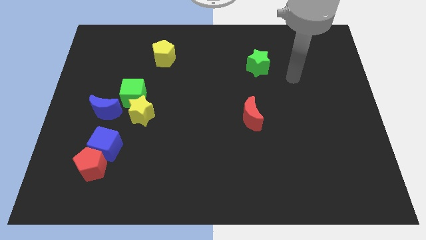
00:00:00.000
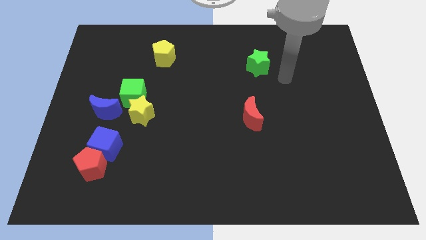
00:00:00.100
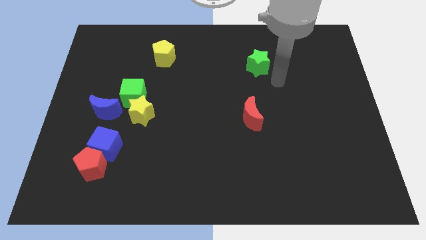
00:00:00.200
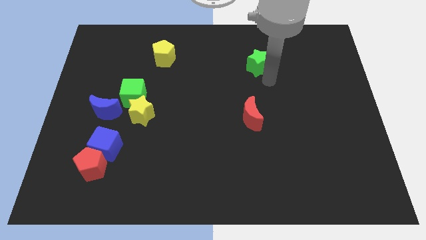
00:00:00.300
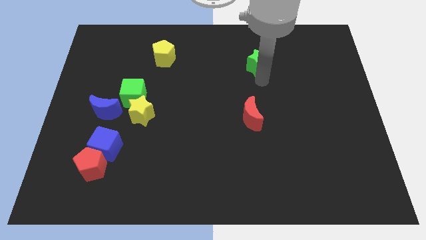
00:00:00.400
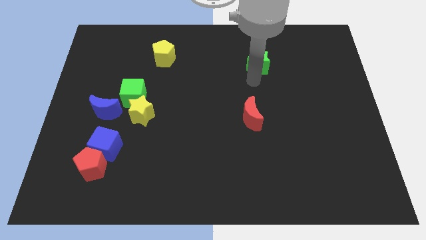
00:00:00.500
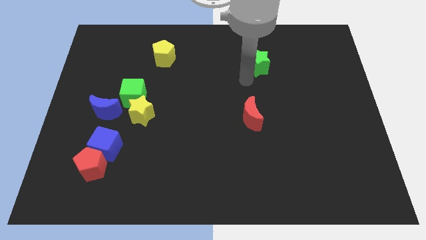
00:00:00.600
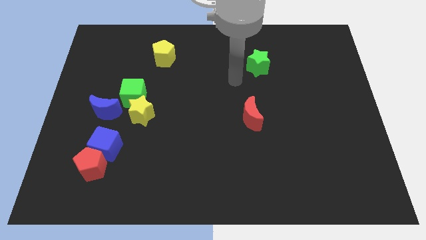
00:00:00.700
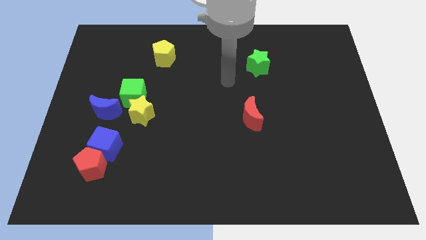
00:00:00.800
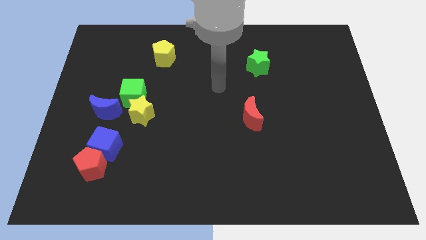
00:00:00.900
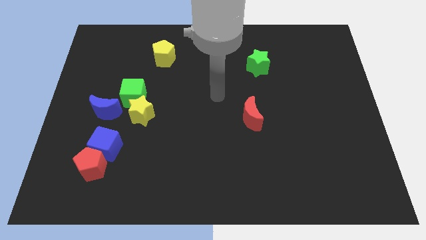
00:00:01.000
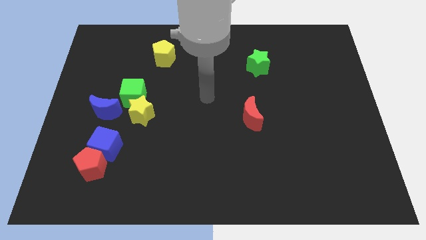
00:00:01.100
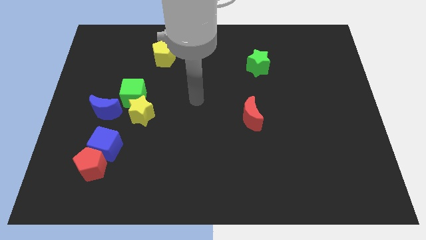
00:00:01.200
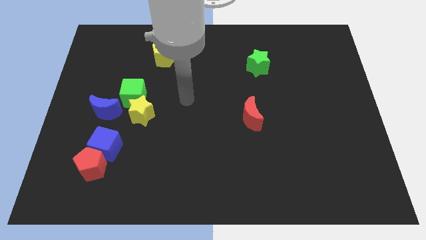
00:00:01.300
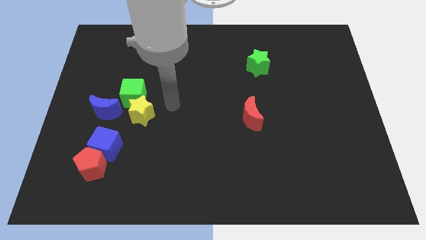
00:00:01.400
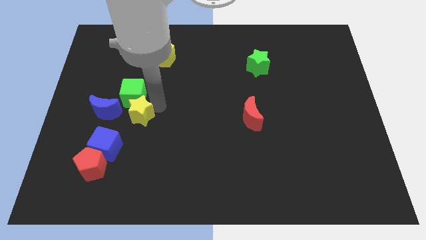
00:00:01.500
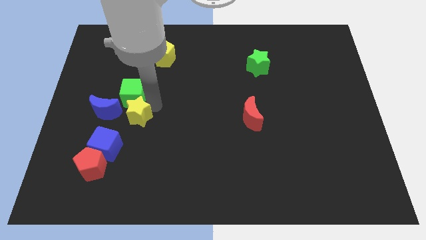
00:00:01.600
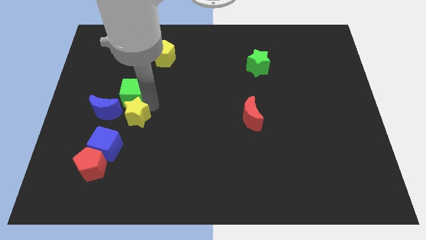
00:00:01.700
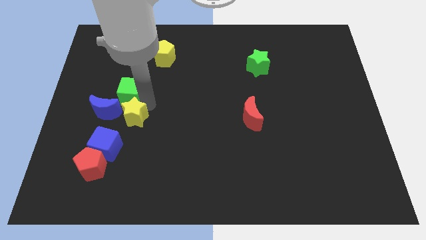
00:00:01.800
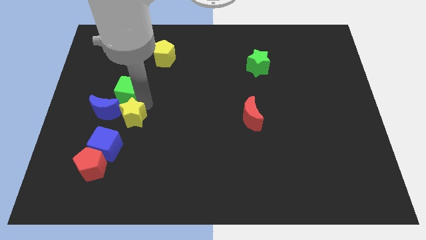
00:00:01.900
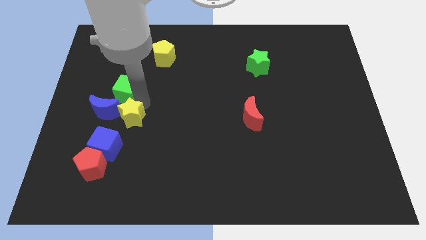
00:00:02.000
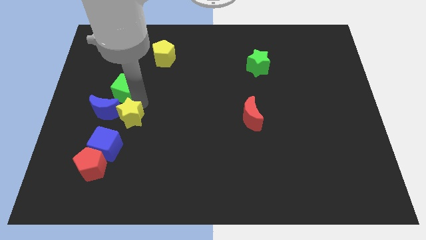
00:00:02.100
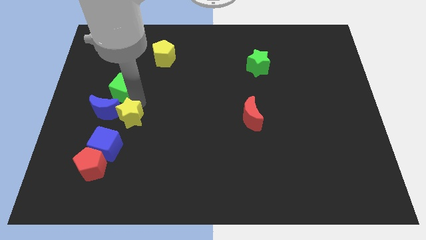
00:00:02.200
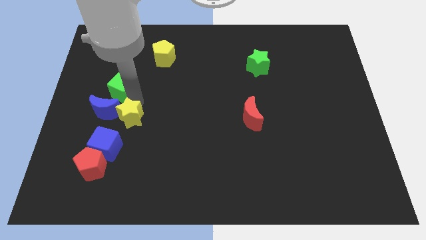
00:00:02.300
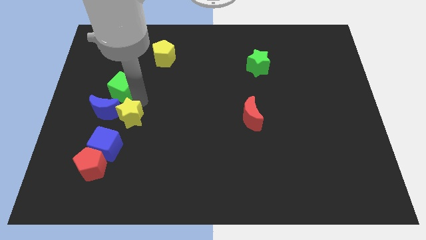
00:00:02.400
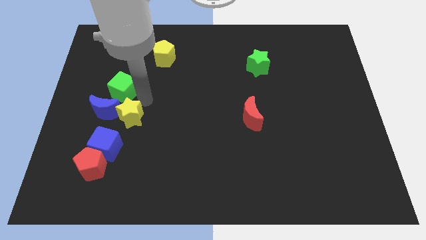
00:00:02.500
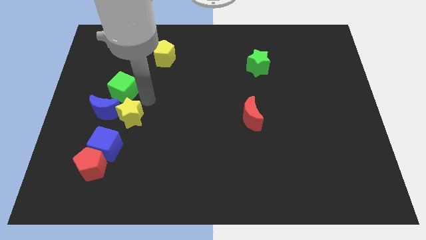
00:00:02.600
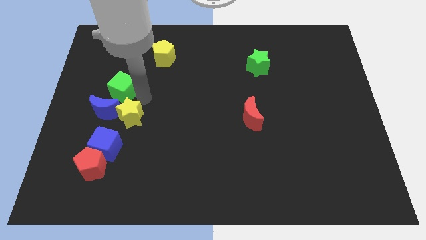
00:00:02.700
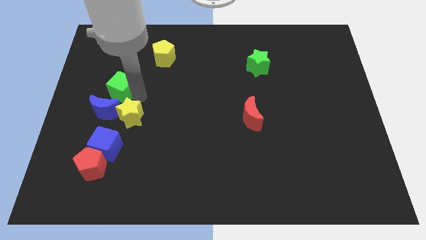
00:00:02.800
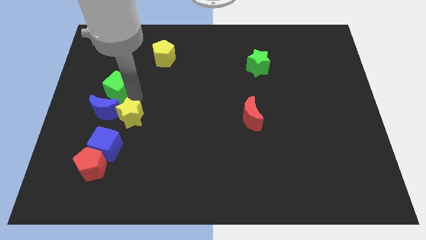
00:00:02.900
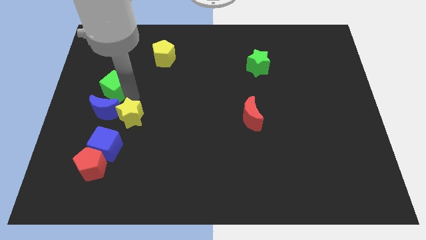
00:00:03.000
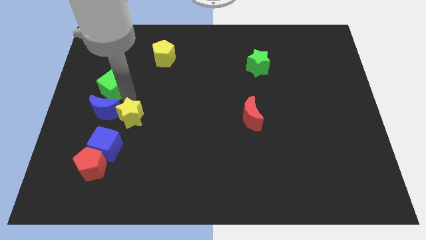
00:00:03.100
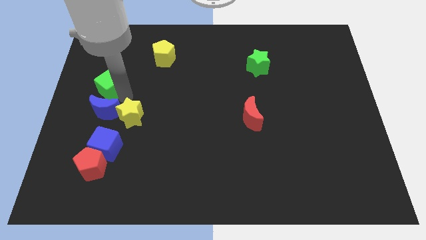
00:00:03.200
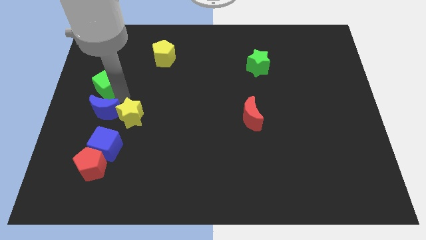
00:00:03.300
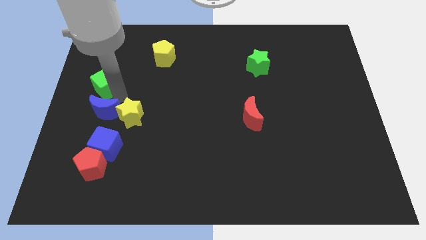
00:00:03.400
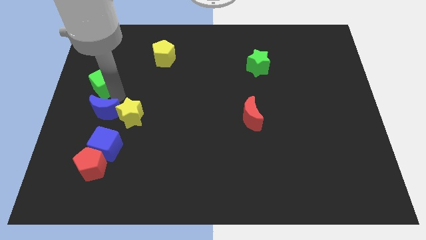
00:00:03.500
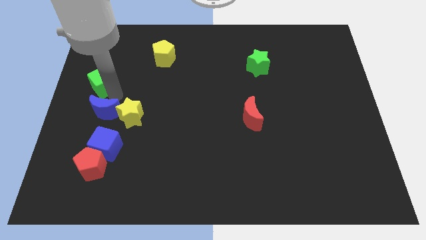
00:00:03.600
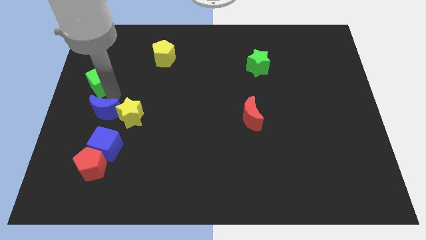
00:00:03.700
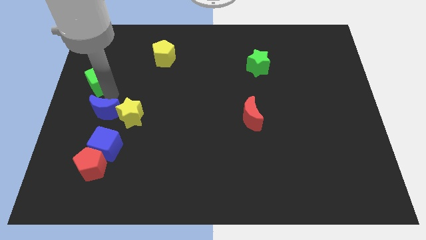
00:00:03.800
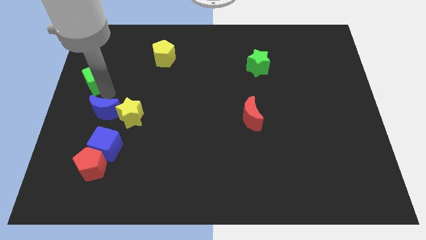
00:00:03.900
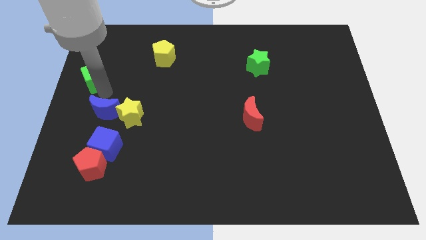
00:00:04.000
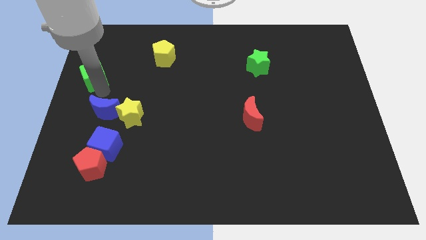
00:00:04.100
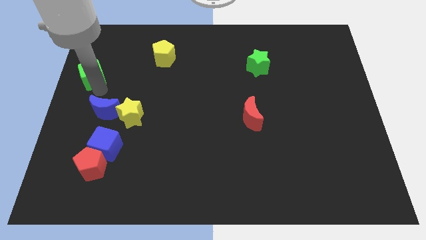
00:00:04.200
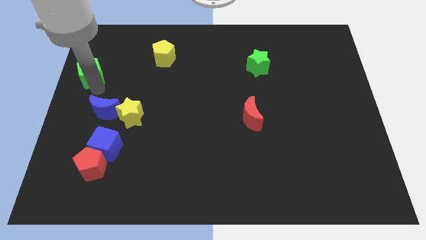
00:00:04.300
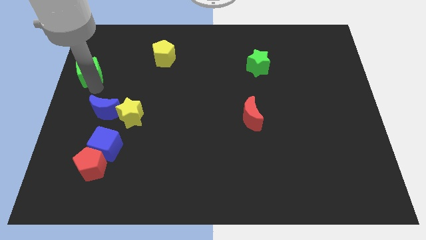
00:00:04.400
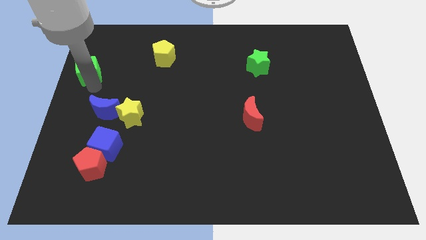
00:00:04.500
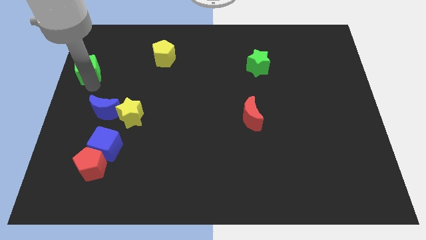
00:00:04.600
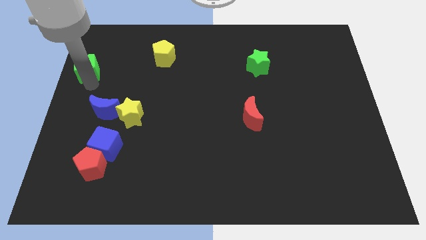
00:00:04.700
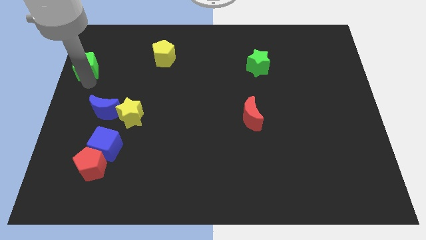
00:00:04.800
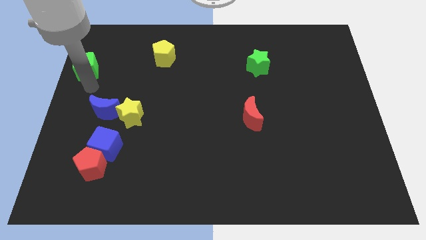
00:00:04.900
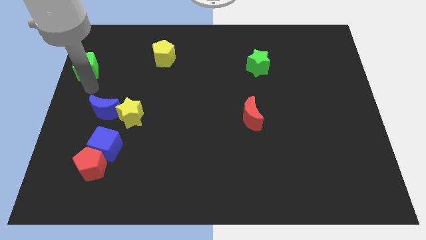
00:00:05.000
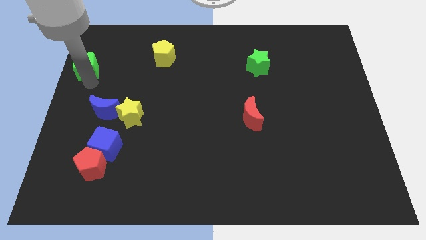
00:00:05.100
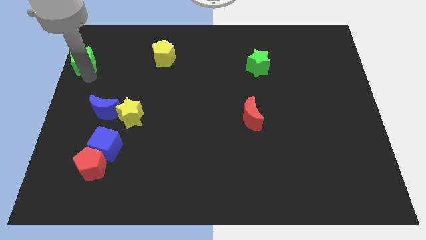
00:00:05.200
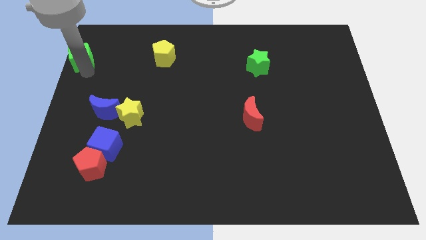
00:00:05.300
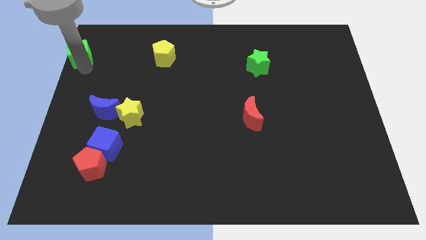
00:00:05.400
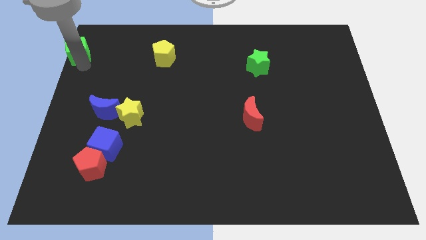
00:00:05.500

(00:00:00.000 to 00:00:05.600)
move the green cube to the top left

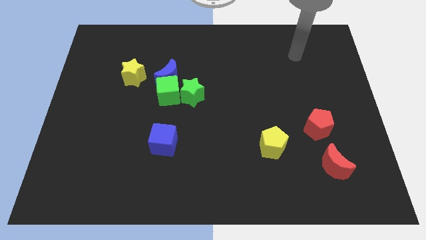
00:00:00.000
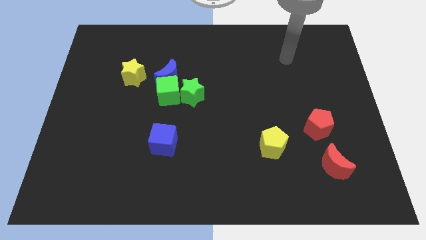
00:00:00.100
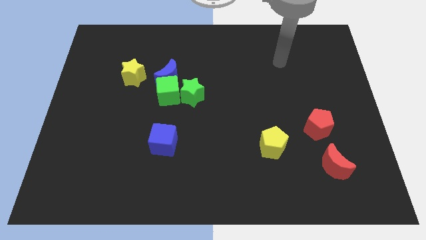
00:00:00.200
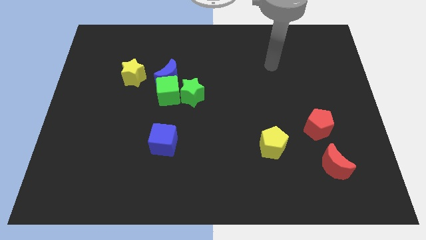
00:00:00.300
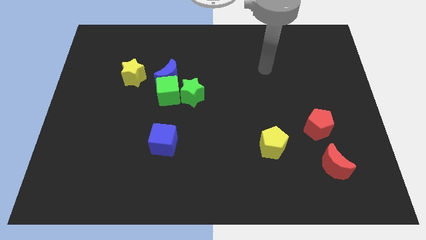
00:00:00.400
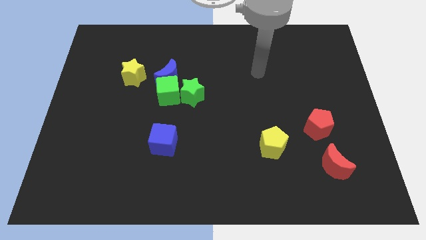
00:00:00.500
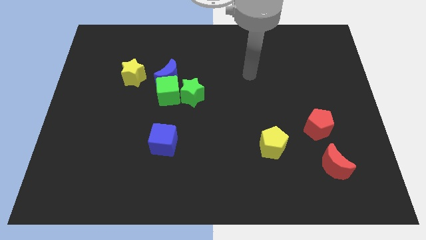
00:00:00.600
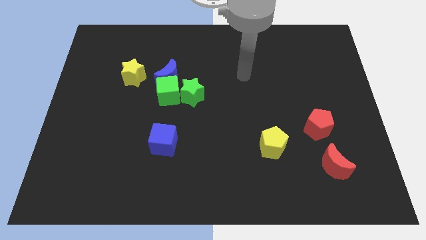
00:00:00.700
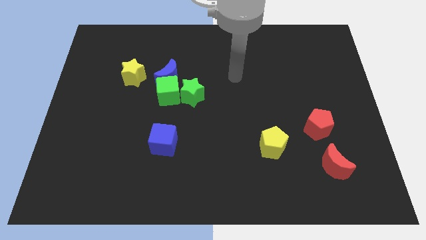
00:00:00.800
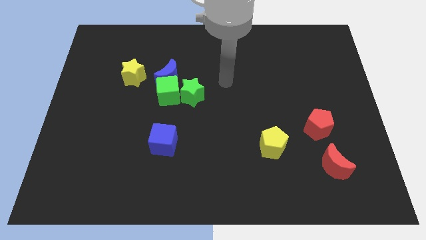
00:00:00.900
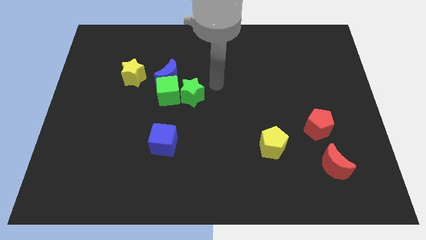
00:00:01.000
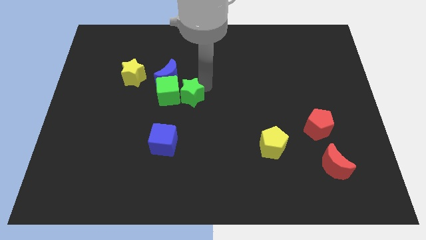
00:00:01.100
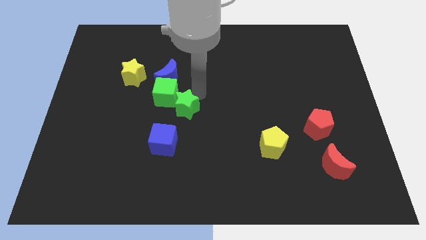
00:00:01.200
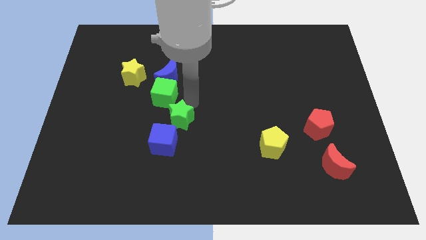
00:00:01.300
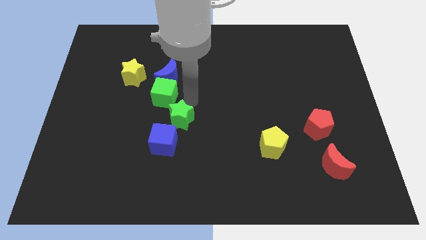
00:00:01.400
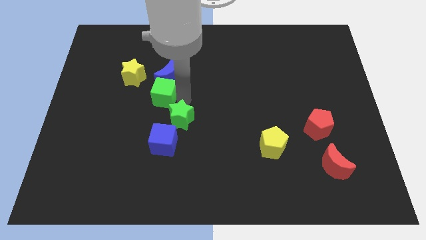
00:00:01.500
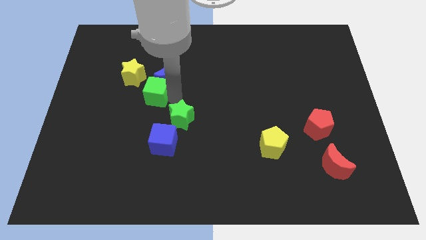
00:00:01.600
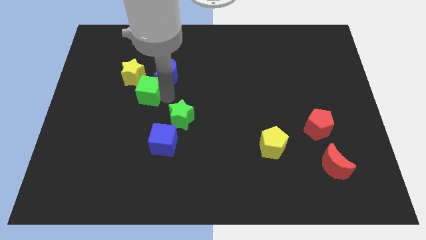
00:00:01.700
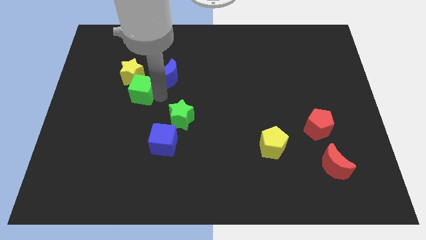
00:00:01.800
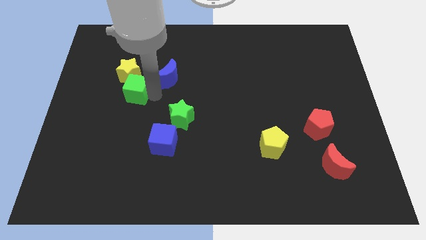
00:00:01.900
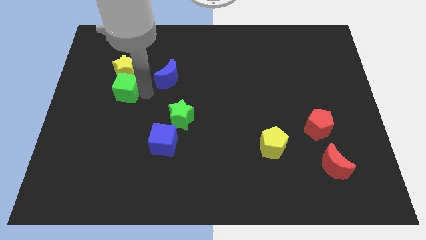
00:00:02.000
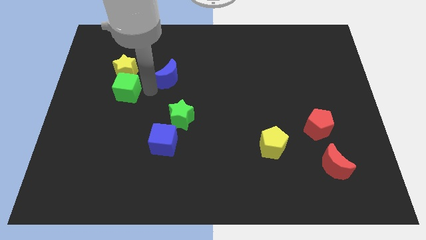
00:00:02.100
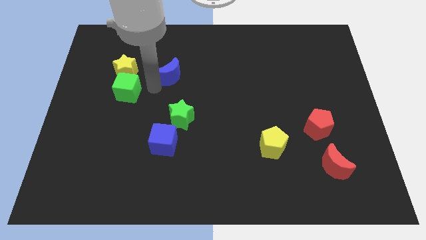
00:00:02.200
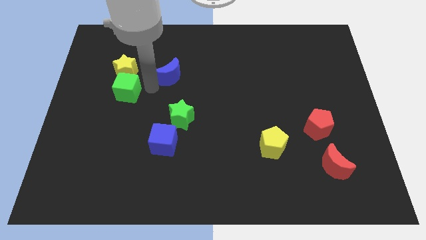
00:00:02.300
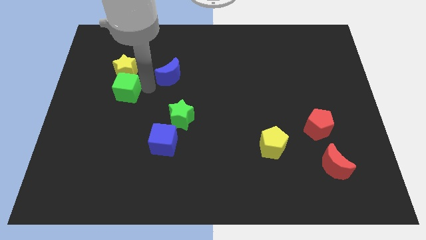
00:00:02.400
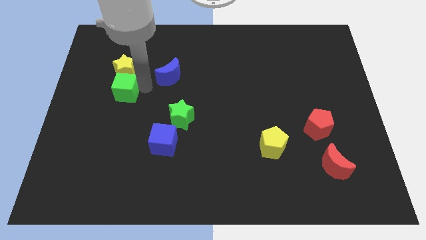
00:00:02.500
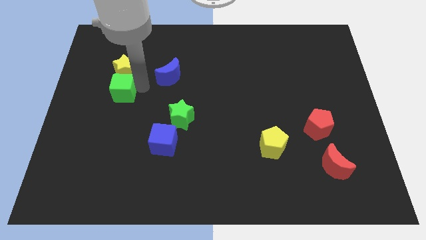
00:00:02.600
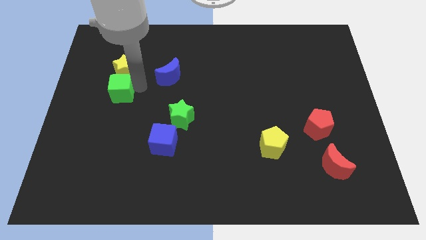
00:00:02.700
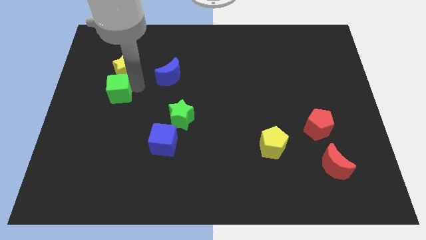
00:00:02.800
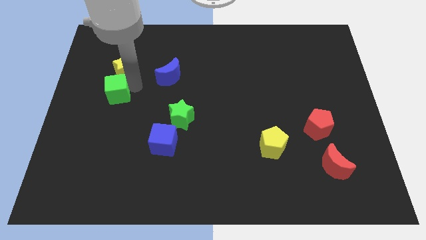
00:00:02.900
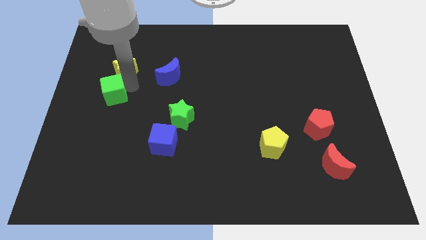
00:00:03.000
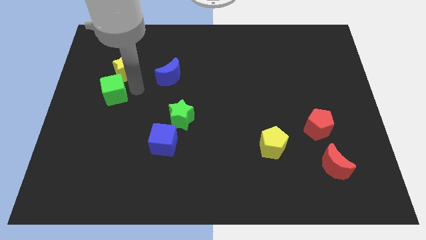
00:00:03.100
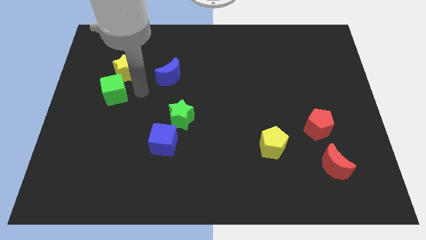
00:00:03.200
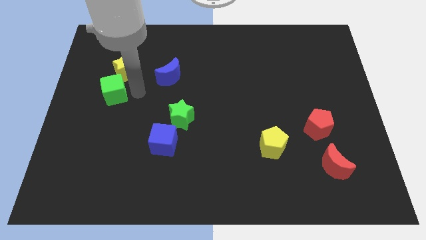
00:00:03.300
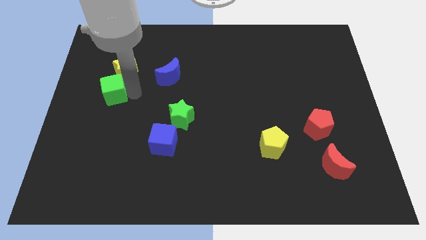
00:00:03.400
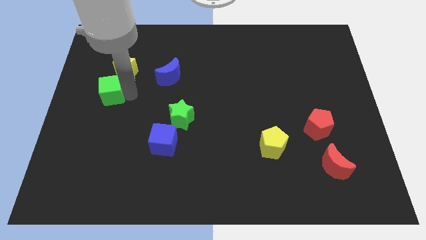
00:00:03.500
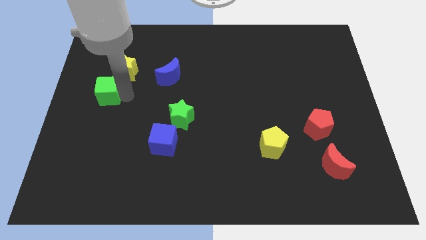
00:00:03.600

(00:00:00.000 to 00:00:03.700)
put the green cube to the left side of the board
